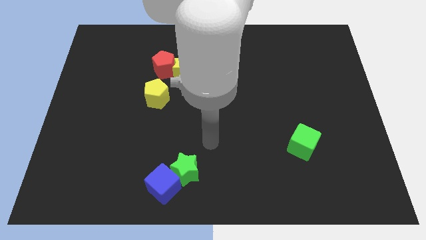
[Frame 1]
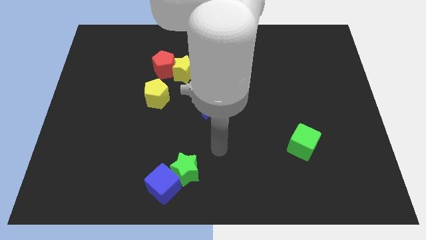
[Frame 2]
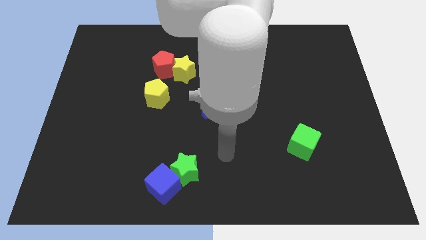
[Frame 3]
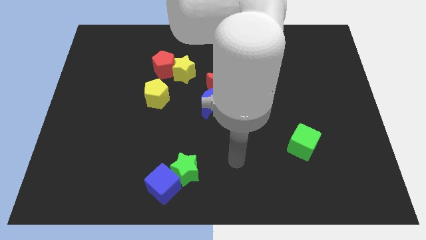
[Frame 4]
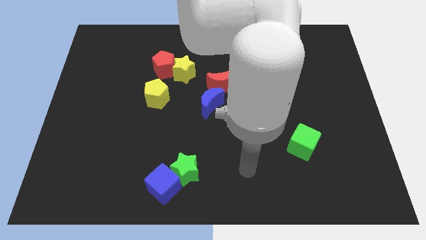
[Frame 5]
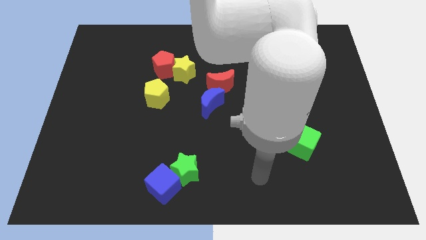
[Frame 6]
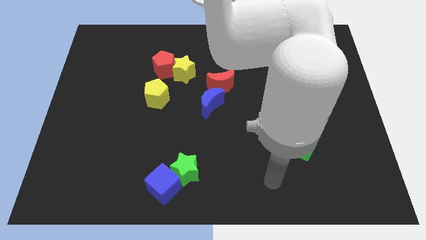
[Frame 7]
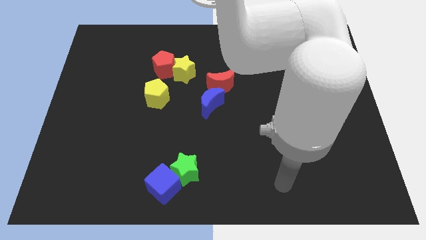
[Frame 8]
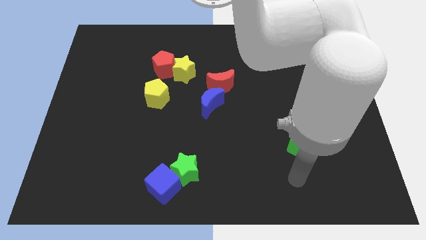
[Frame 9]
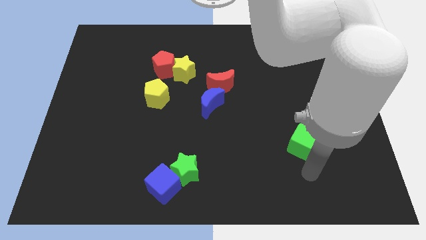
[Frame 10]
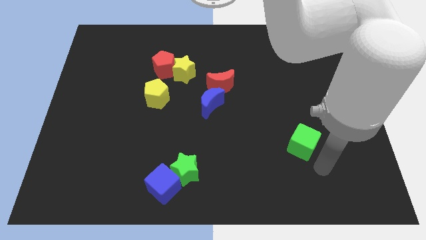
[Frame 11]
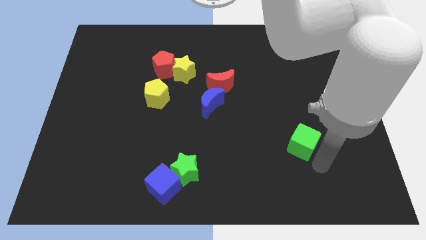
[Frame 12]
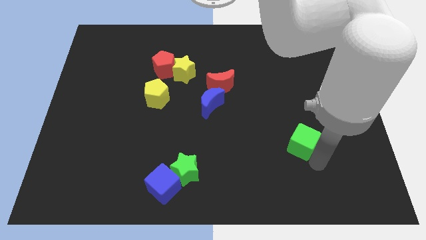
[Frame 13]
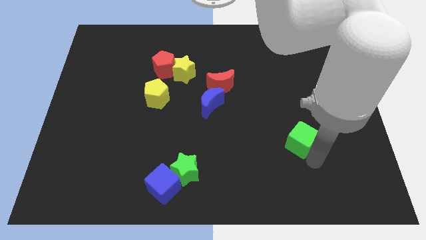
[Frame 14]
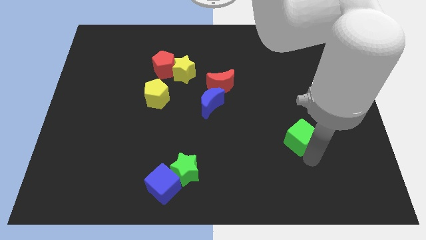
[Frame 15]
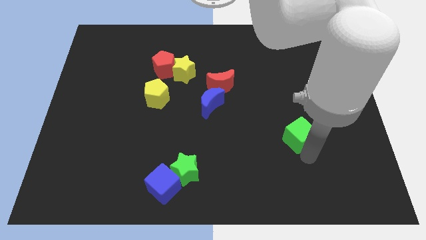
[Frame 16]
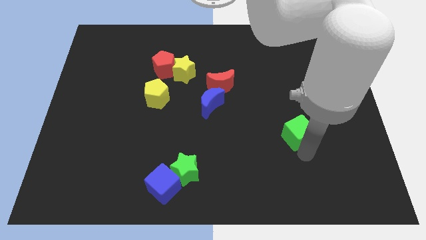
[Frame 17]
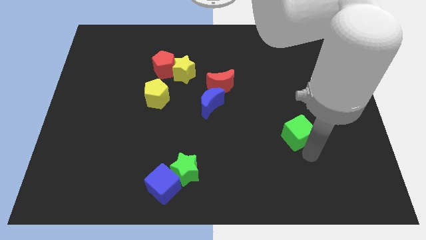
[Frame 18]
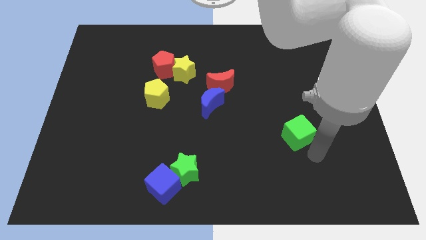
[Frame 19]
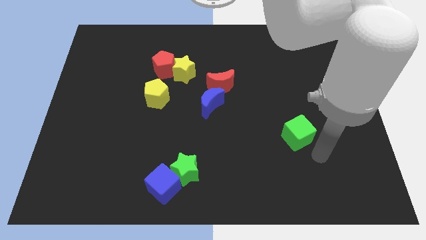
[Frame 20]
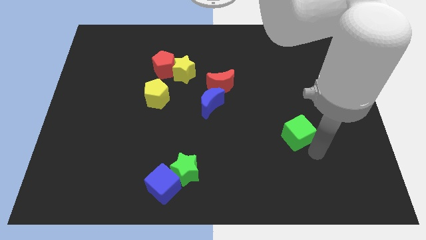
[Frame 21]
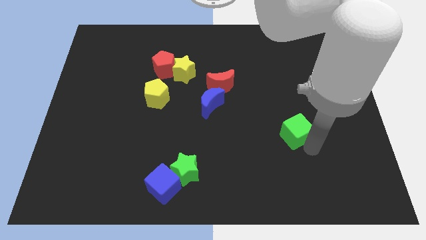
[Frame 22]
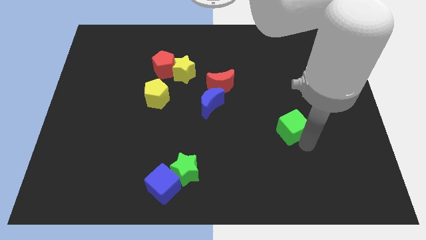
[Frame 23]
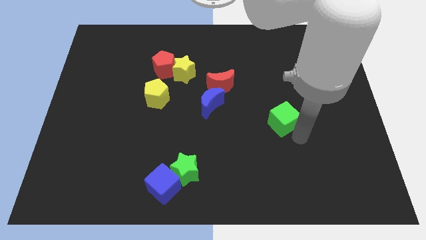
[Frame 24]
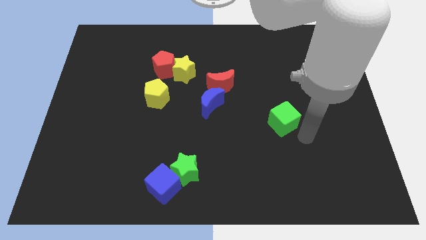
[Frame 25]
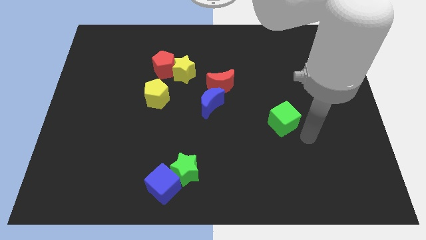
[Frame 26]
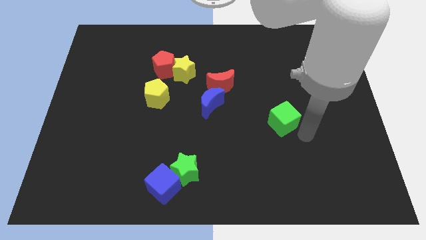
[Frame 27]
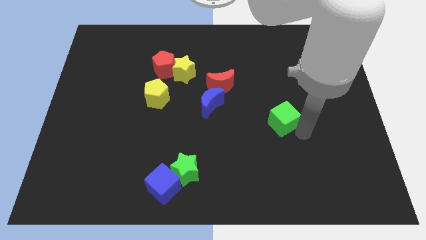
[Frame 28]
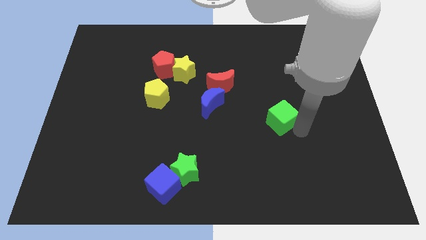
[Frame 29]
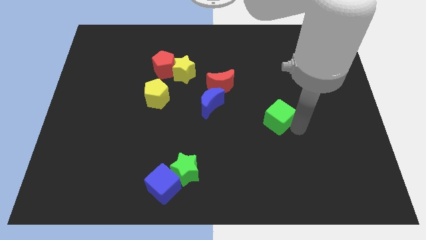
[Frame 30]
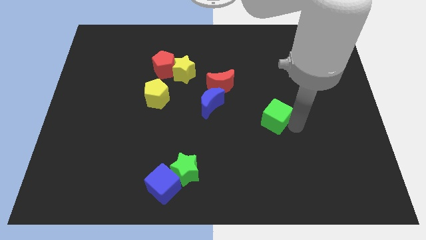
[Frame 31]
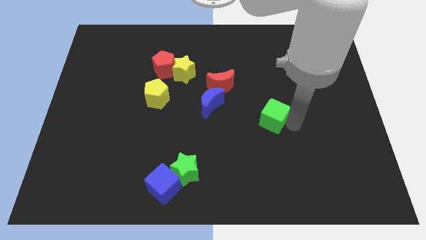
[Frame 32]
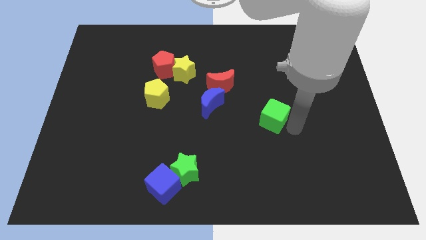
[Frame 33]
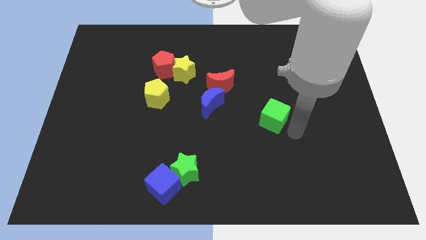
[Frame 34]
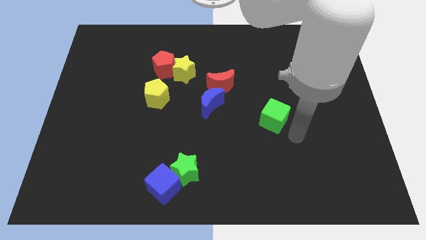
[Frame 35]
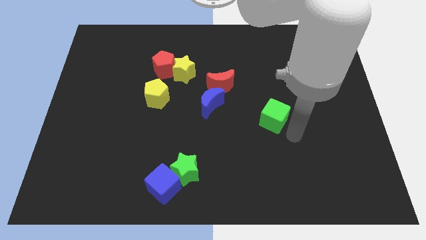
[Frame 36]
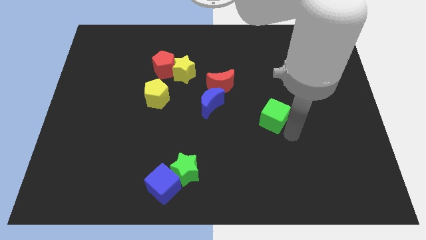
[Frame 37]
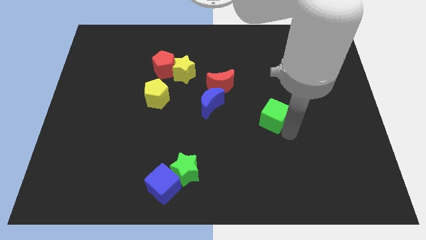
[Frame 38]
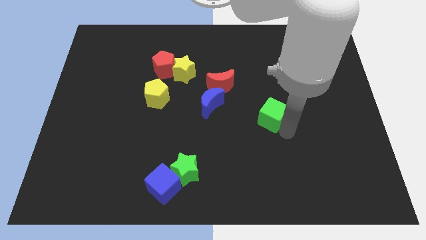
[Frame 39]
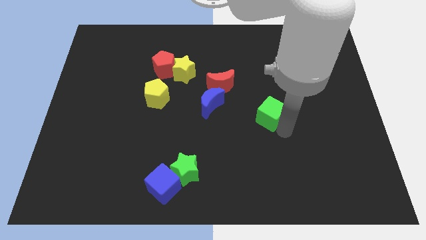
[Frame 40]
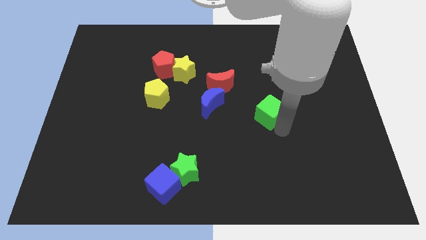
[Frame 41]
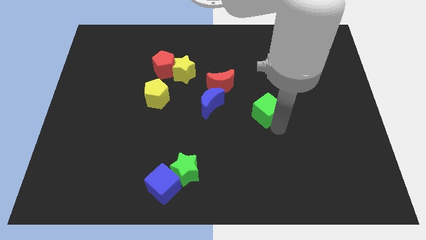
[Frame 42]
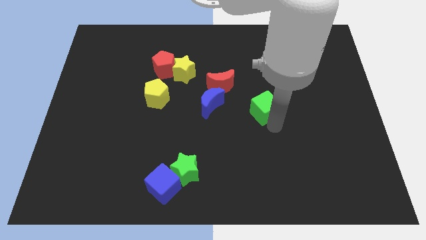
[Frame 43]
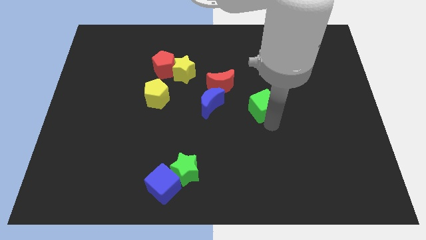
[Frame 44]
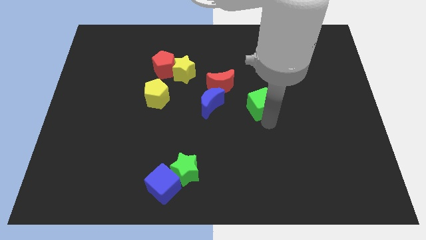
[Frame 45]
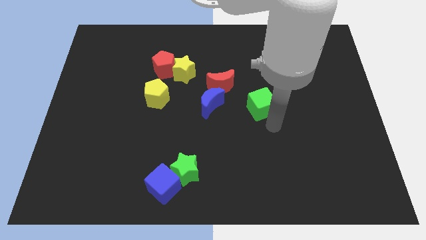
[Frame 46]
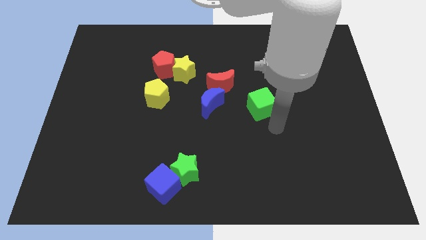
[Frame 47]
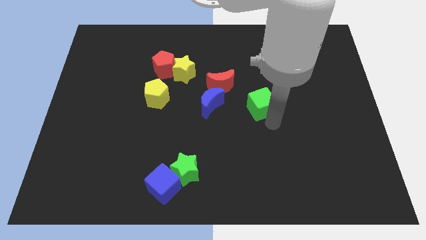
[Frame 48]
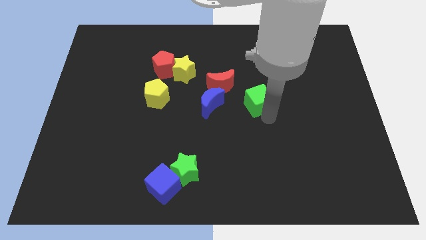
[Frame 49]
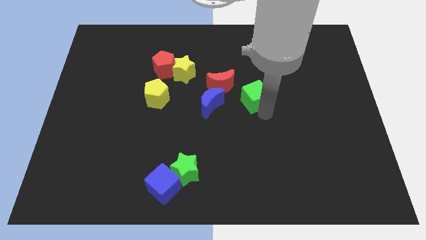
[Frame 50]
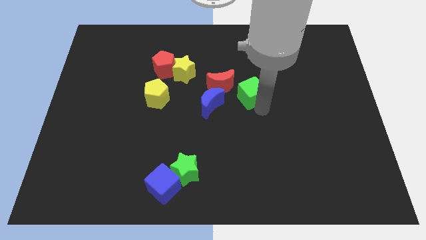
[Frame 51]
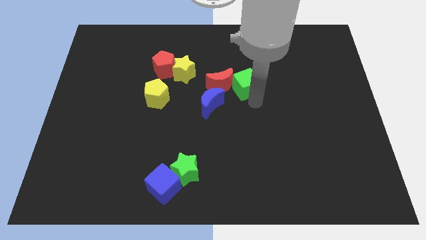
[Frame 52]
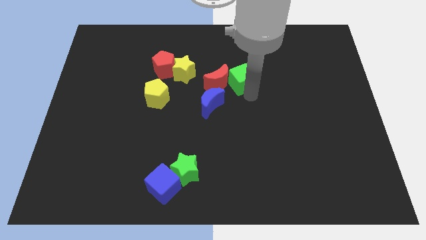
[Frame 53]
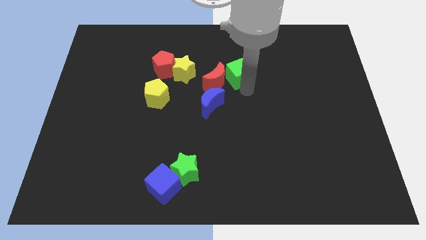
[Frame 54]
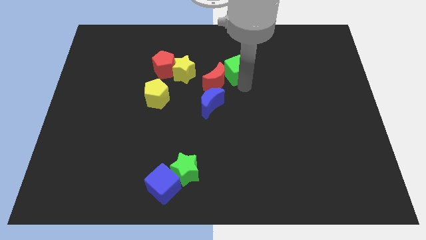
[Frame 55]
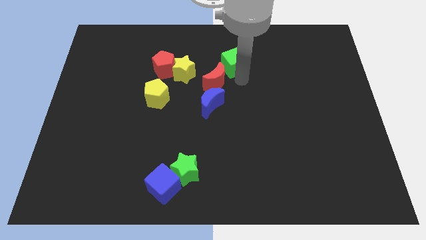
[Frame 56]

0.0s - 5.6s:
move the green cube to the top of the red moon

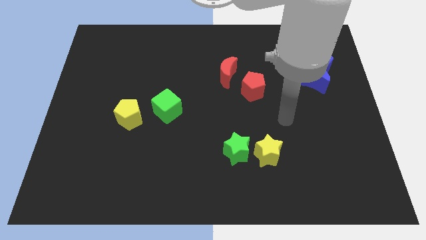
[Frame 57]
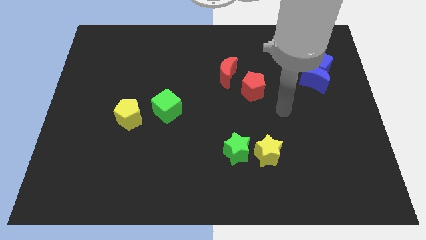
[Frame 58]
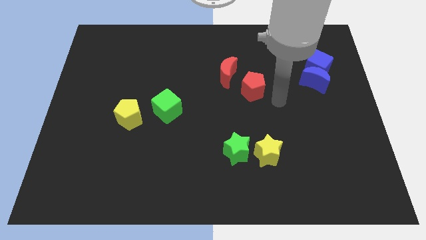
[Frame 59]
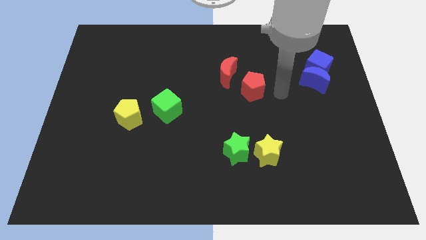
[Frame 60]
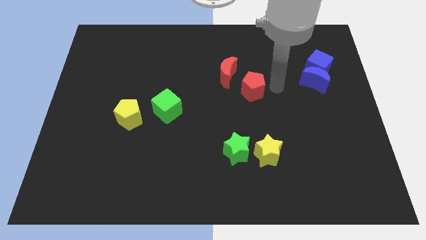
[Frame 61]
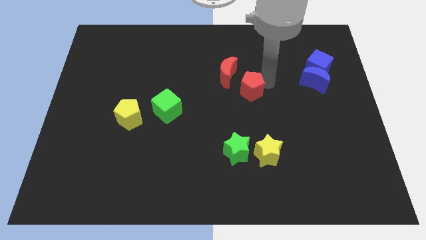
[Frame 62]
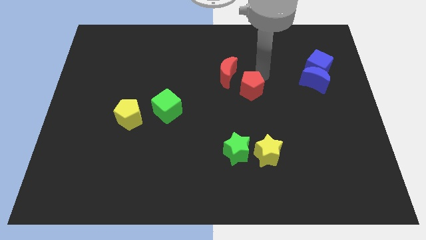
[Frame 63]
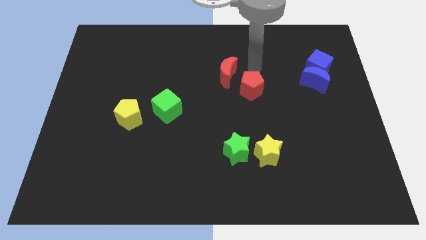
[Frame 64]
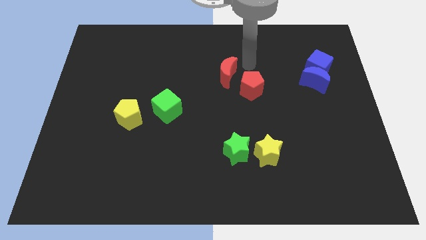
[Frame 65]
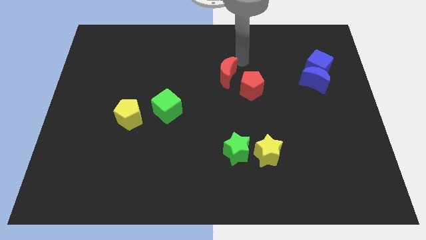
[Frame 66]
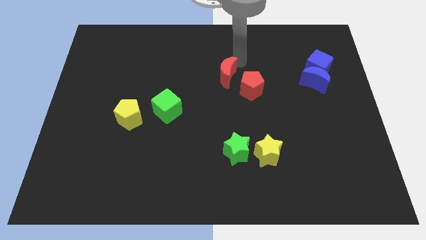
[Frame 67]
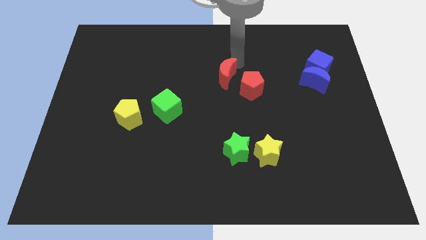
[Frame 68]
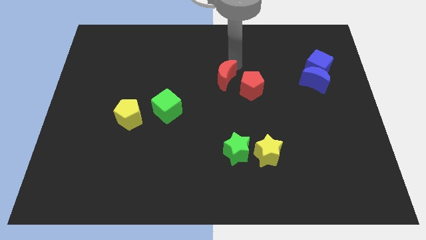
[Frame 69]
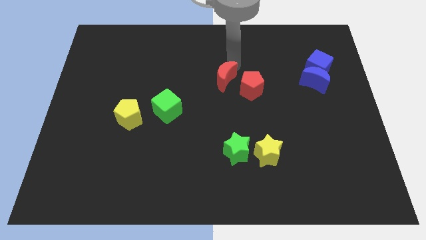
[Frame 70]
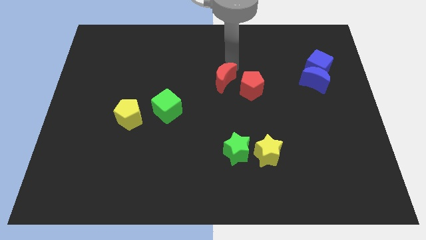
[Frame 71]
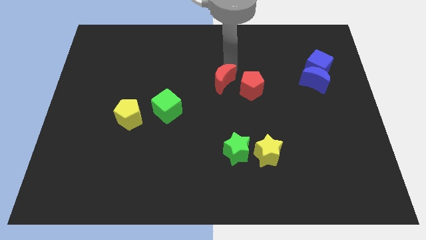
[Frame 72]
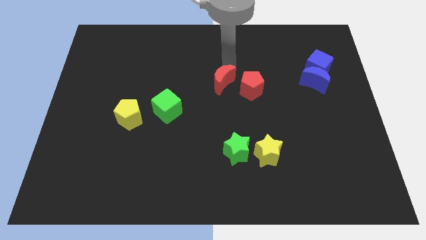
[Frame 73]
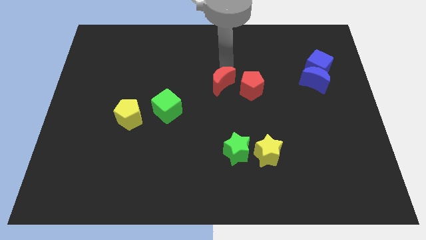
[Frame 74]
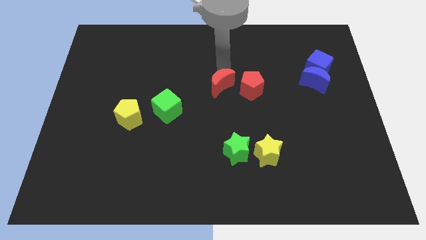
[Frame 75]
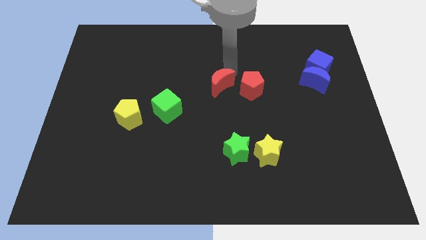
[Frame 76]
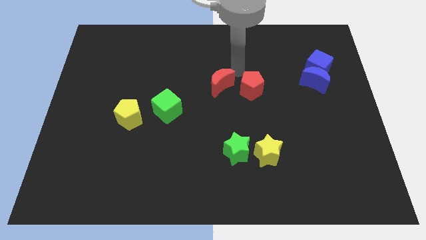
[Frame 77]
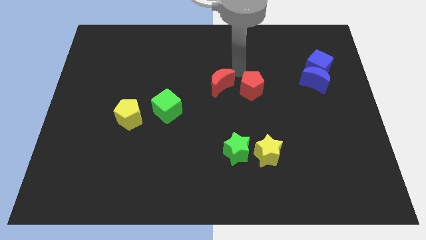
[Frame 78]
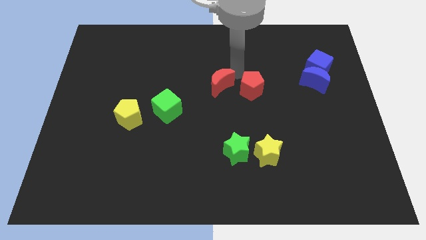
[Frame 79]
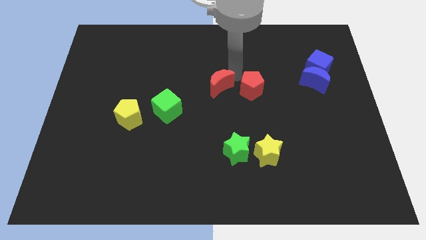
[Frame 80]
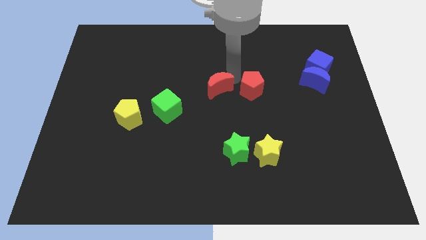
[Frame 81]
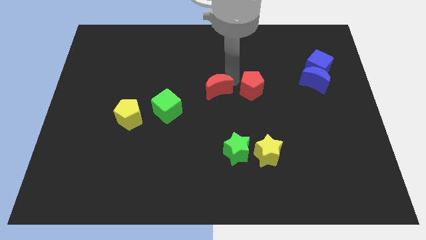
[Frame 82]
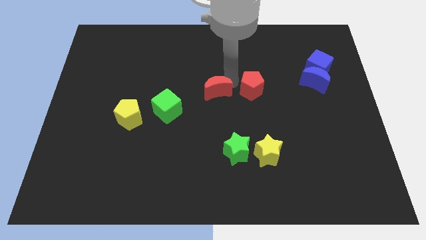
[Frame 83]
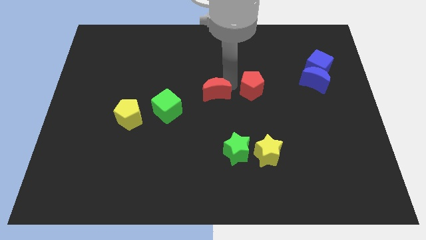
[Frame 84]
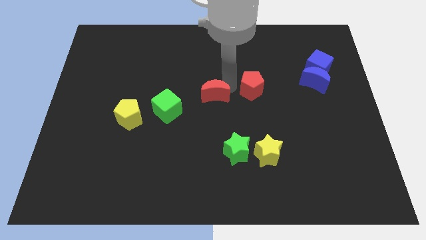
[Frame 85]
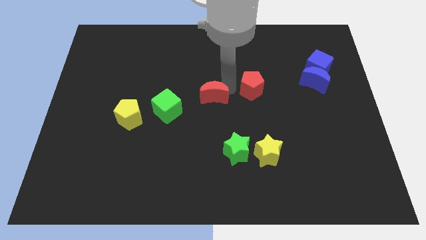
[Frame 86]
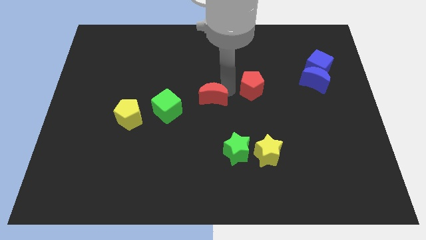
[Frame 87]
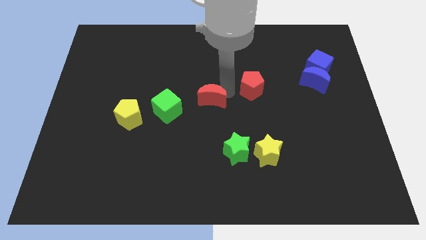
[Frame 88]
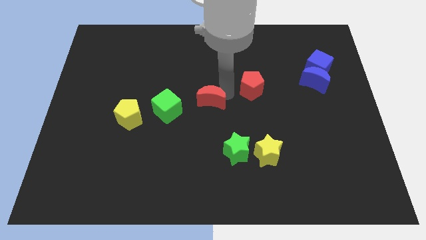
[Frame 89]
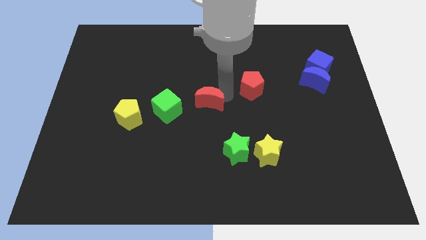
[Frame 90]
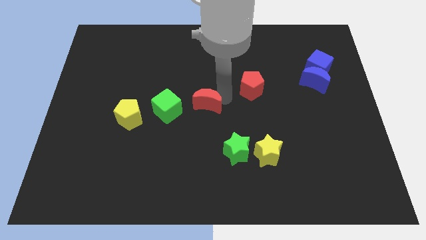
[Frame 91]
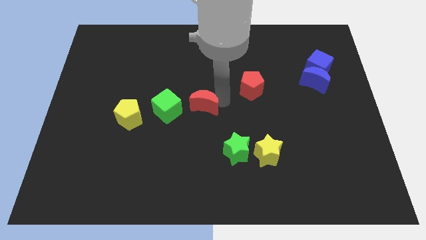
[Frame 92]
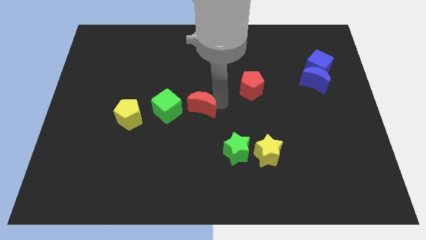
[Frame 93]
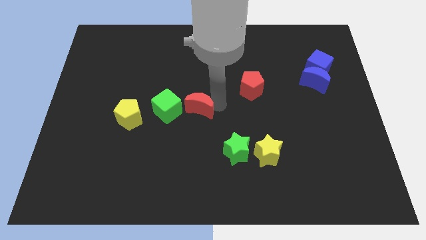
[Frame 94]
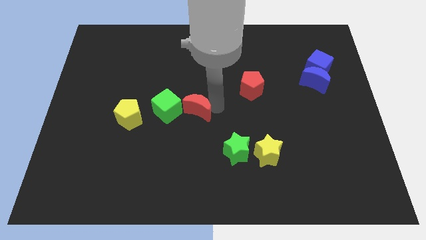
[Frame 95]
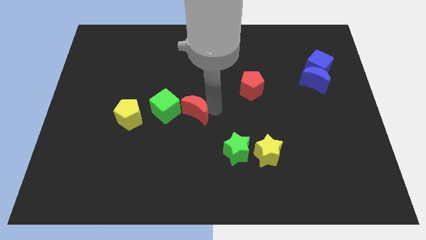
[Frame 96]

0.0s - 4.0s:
push the red moon to the bottom right of the green cube
